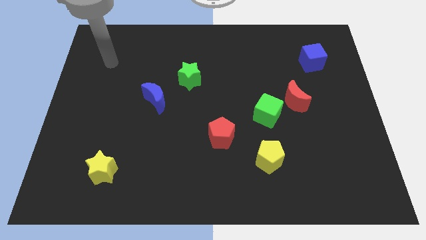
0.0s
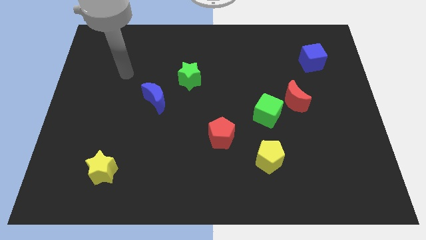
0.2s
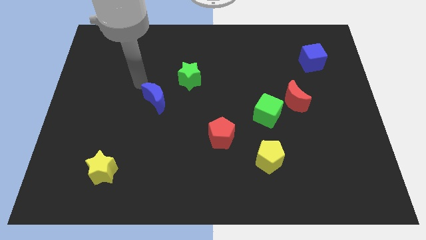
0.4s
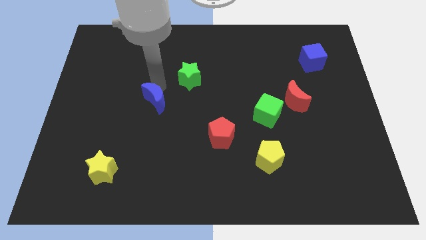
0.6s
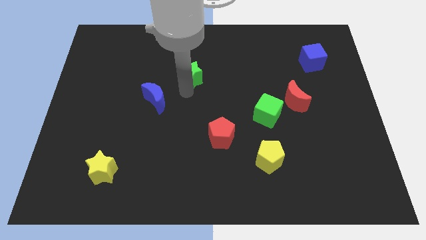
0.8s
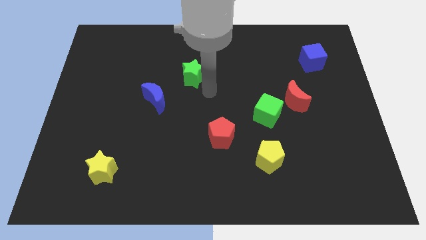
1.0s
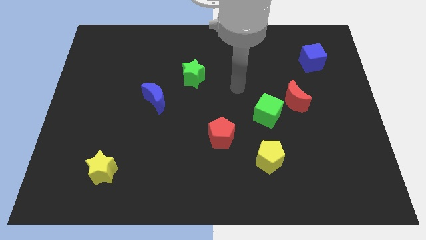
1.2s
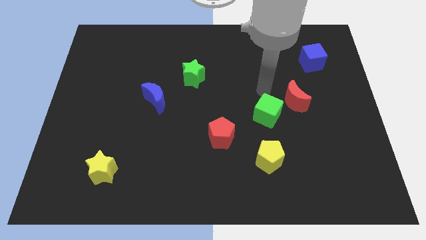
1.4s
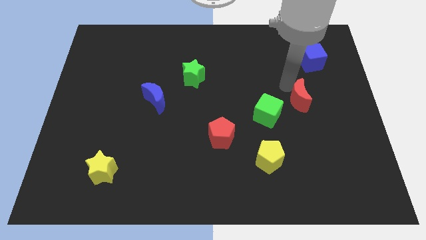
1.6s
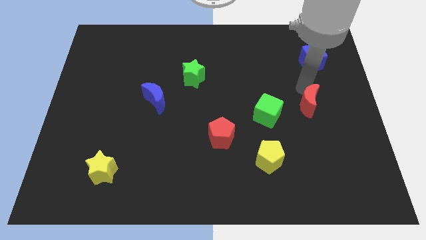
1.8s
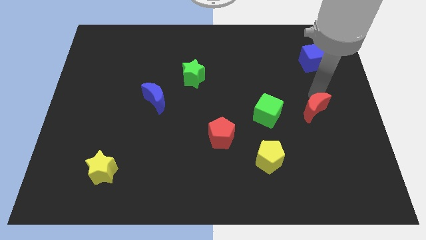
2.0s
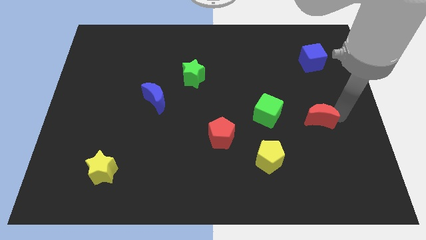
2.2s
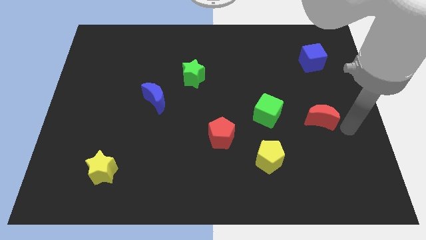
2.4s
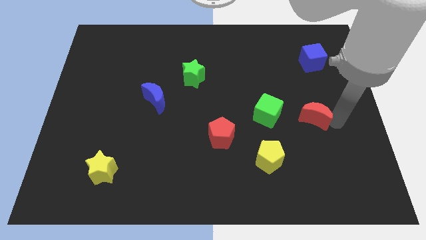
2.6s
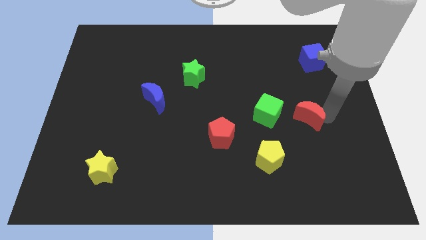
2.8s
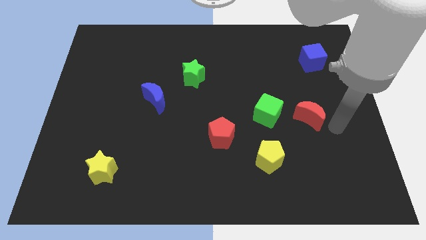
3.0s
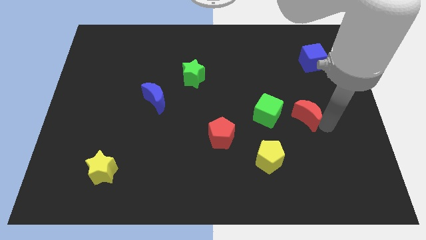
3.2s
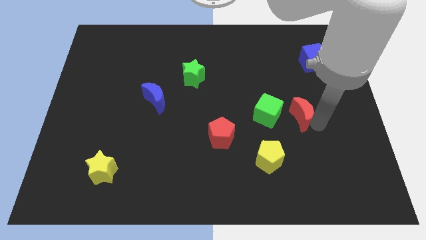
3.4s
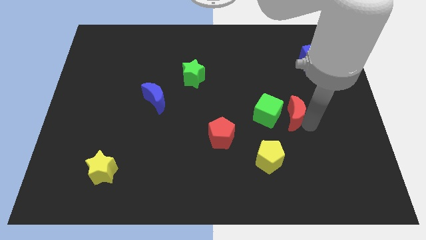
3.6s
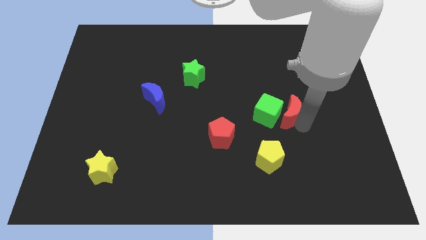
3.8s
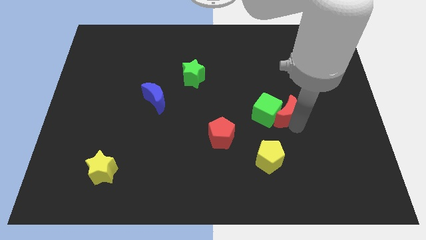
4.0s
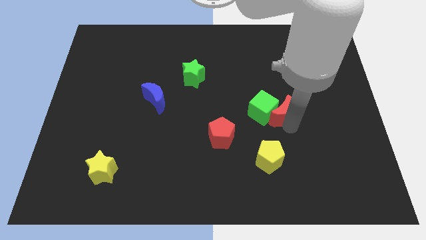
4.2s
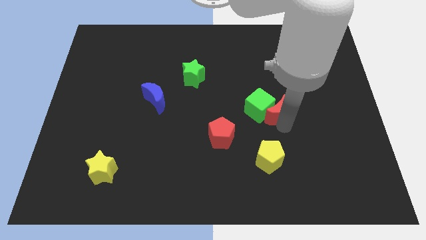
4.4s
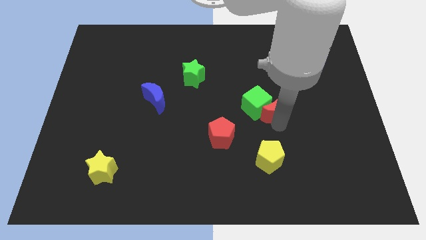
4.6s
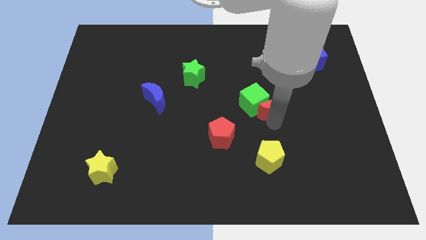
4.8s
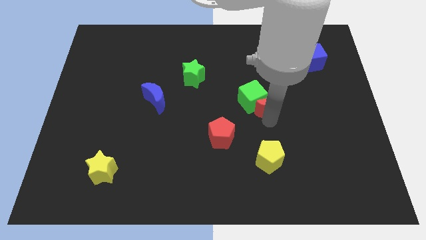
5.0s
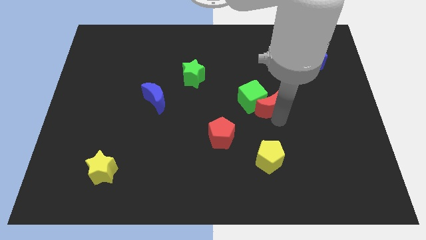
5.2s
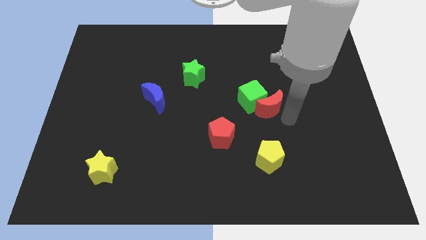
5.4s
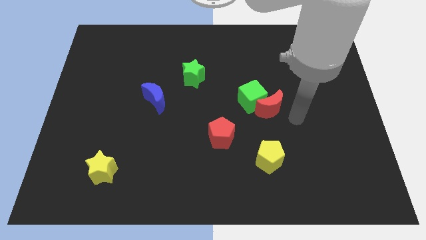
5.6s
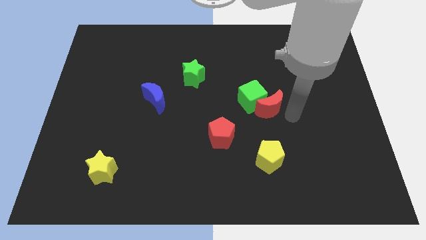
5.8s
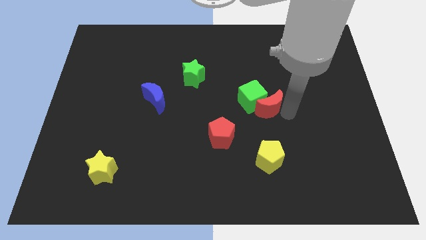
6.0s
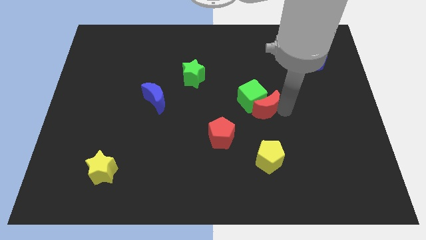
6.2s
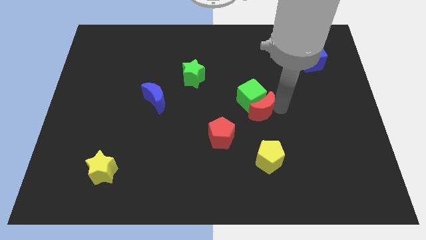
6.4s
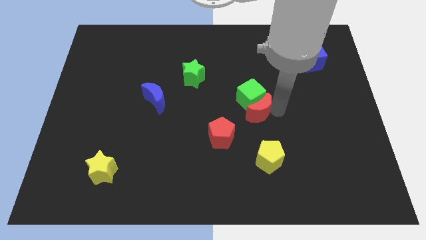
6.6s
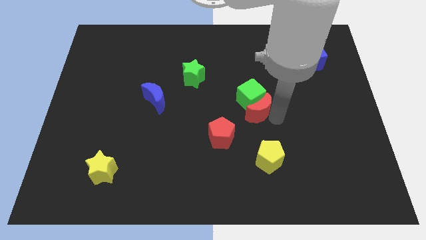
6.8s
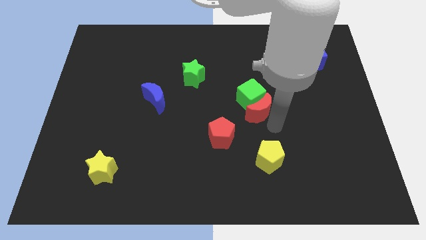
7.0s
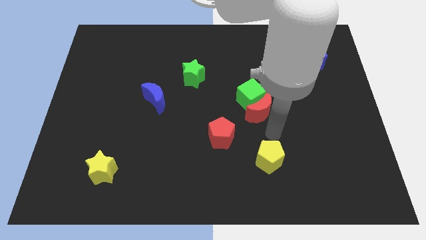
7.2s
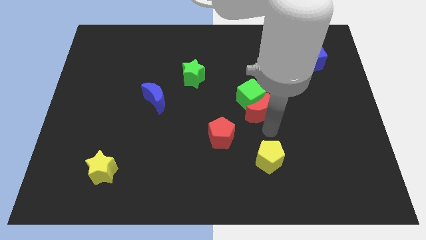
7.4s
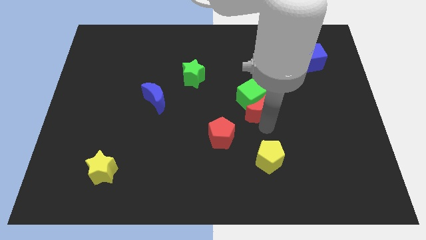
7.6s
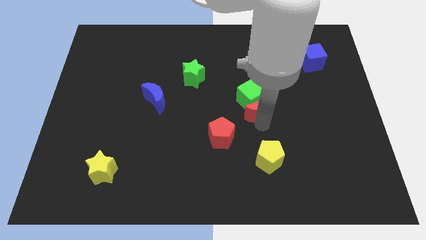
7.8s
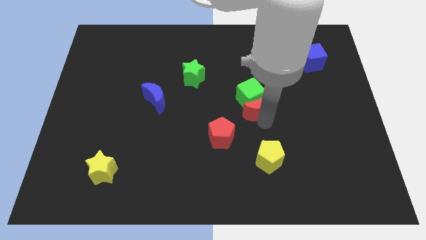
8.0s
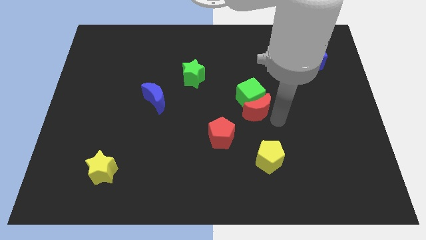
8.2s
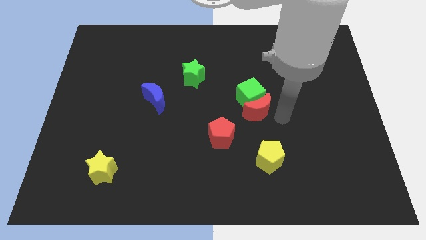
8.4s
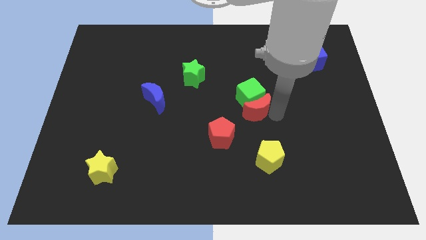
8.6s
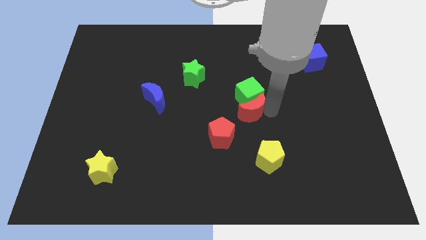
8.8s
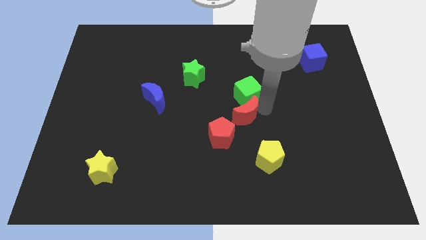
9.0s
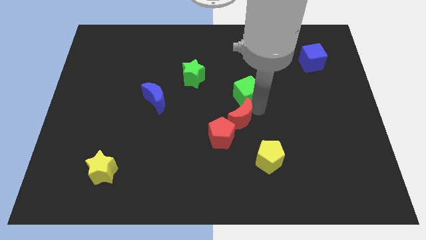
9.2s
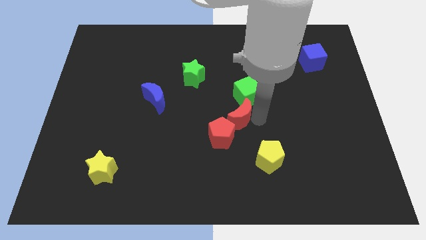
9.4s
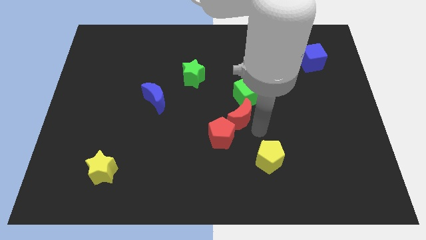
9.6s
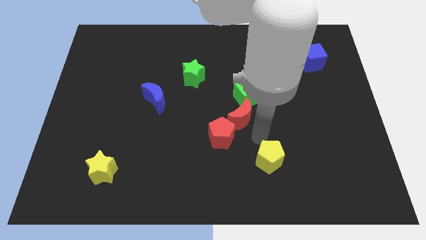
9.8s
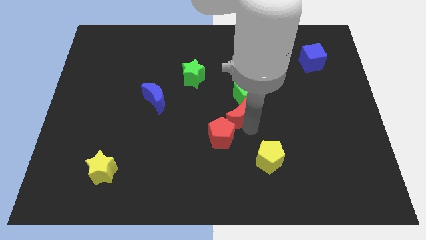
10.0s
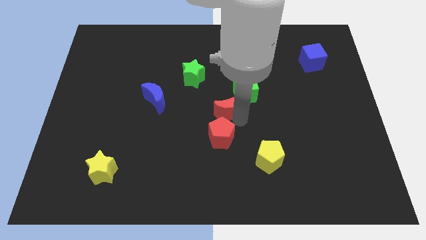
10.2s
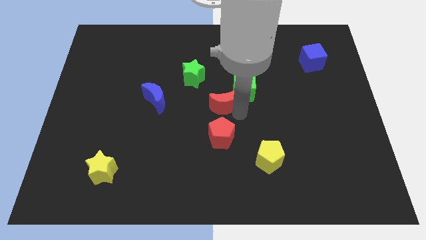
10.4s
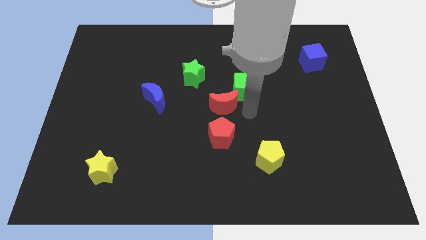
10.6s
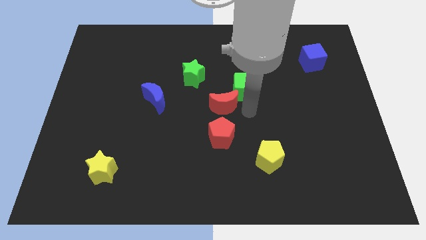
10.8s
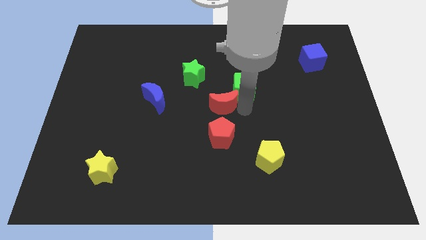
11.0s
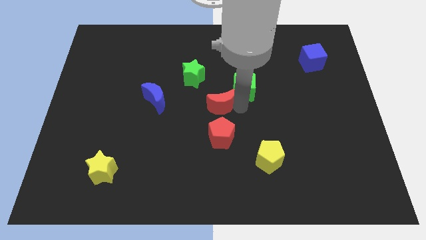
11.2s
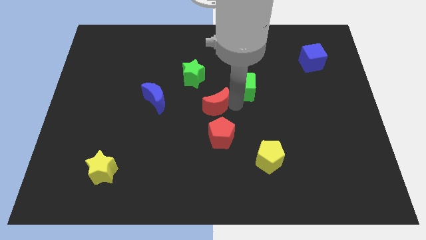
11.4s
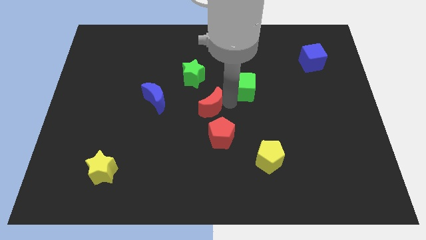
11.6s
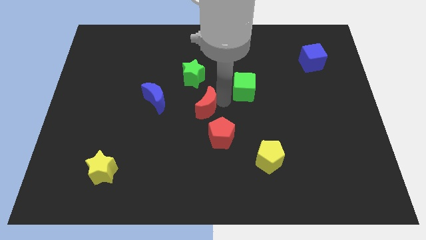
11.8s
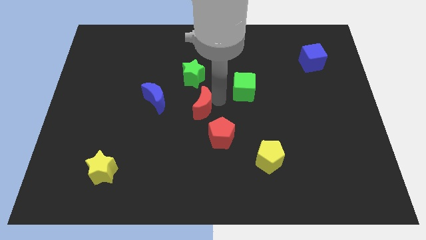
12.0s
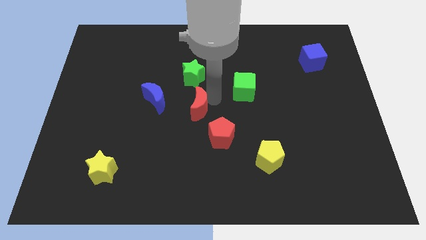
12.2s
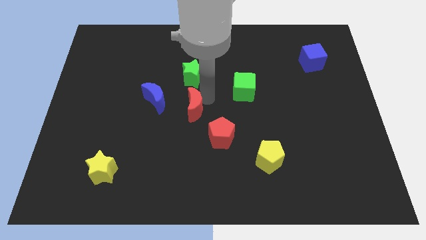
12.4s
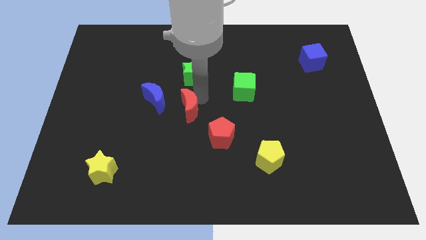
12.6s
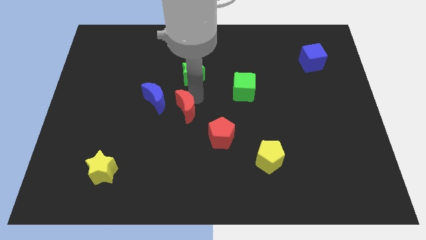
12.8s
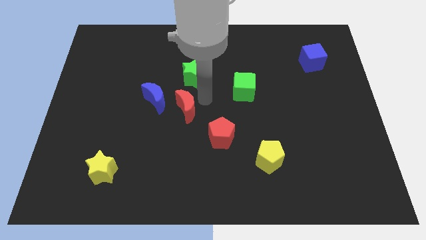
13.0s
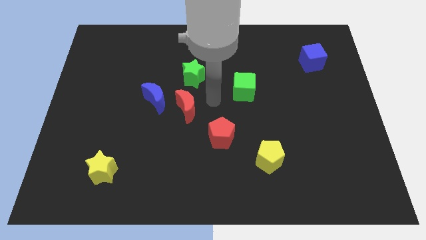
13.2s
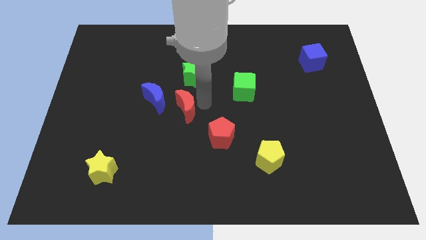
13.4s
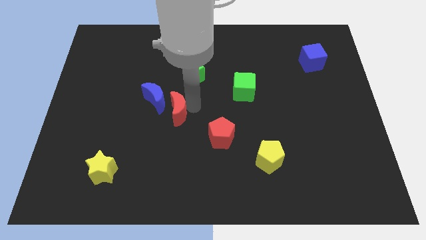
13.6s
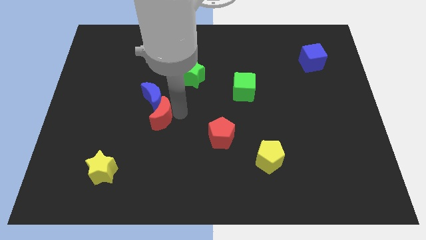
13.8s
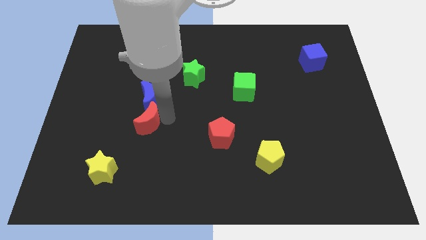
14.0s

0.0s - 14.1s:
put the red moon diagonally down and to the left of the blue moon

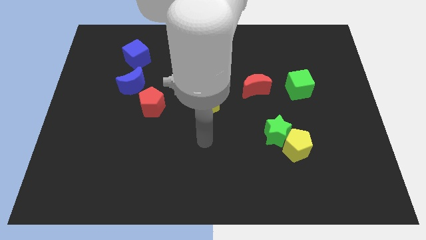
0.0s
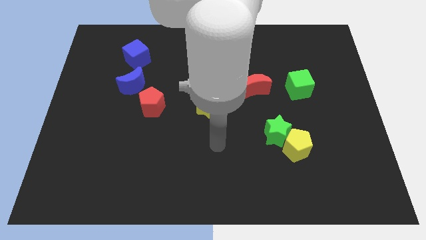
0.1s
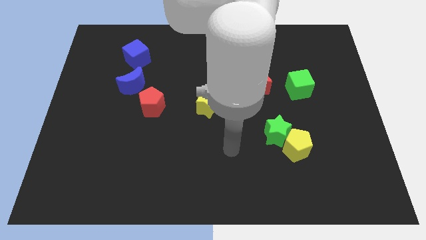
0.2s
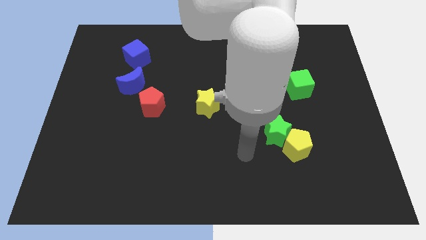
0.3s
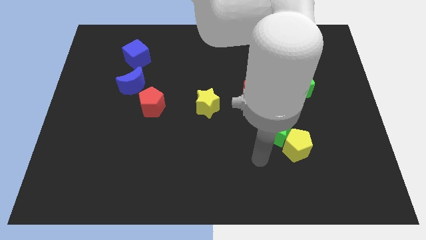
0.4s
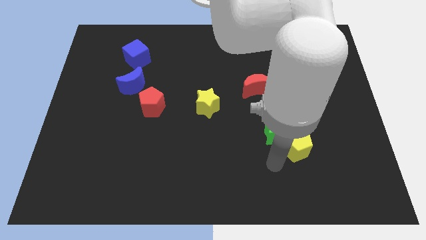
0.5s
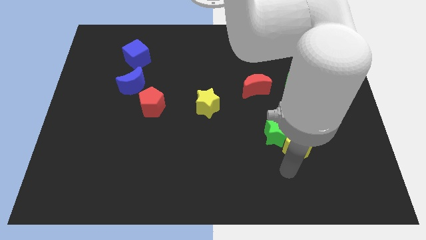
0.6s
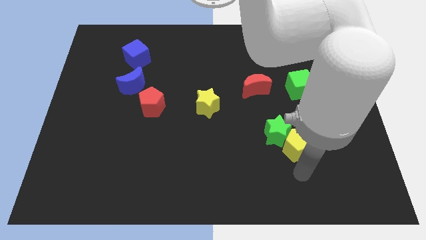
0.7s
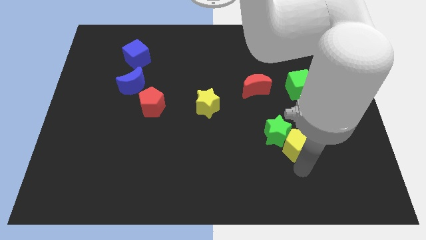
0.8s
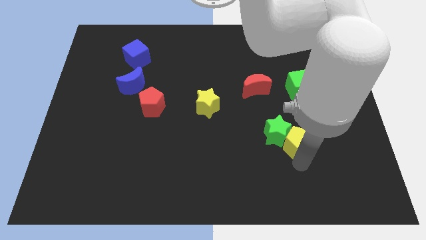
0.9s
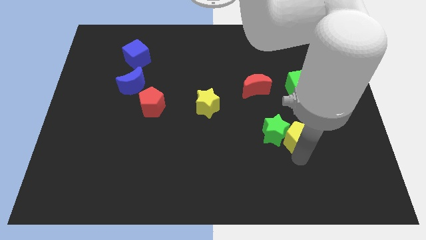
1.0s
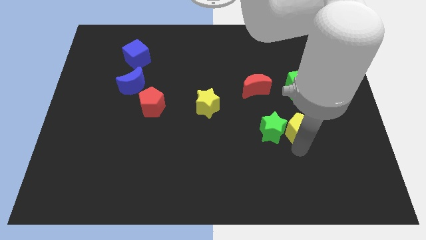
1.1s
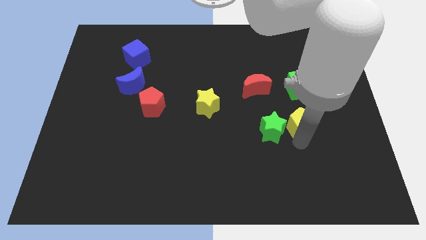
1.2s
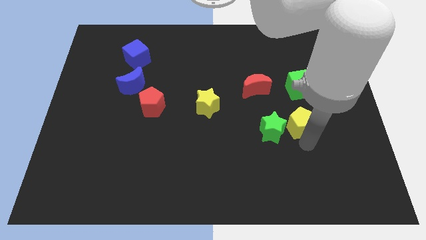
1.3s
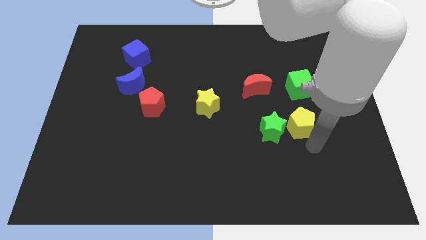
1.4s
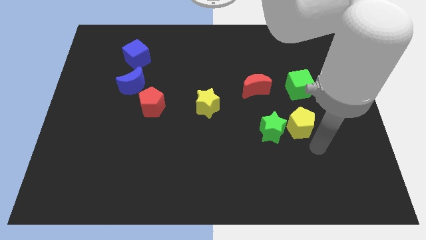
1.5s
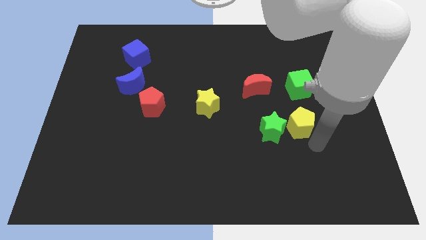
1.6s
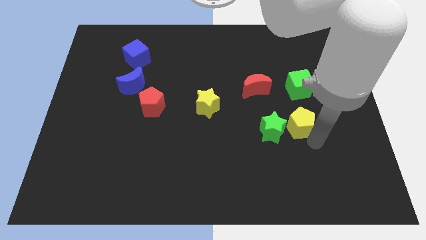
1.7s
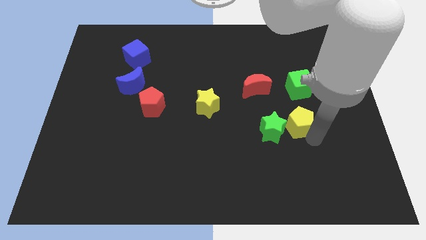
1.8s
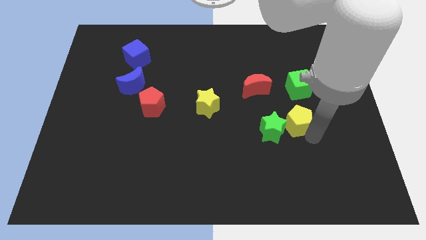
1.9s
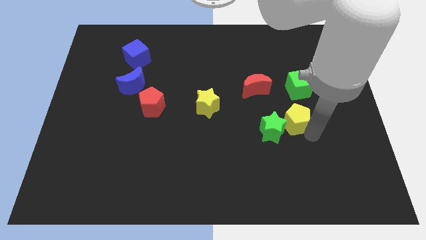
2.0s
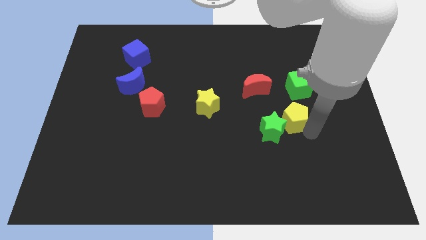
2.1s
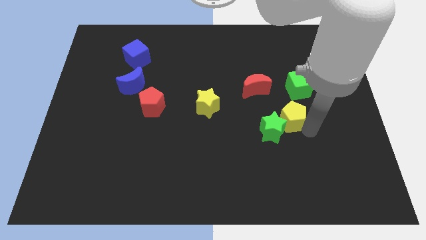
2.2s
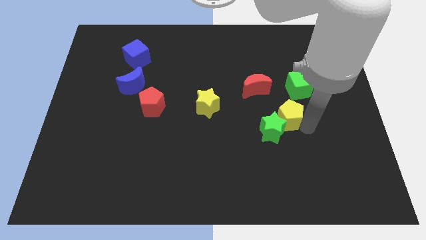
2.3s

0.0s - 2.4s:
put the yellow pentagon to the top of the green star
